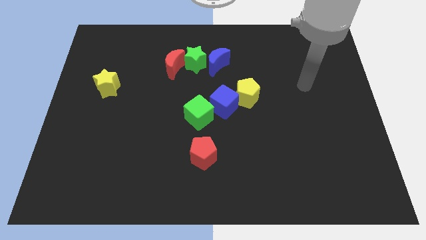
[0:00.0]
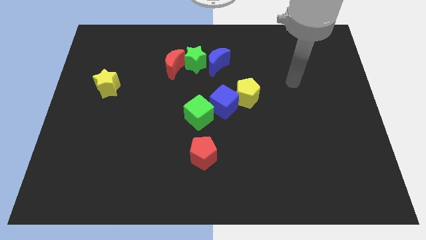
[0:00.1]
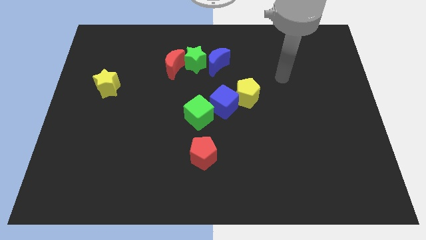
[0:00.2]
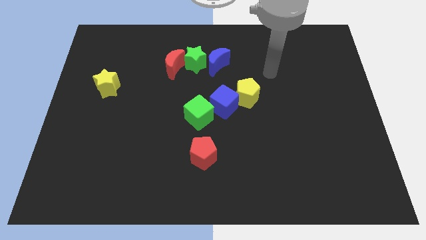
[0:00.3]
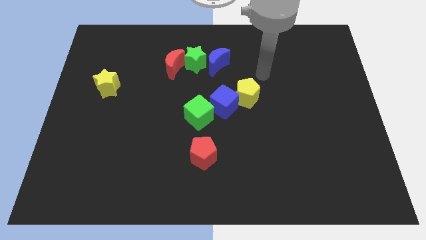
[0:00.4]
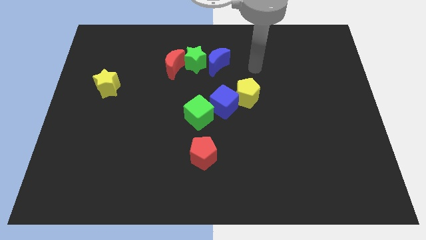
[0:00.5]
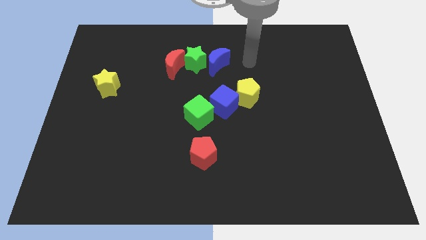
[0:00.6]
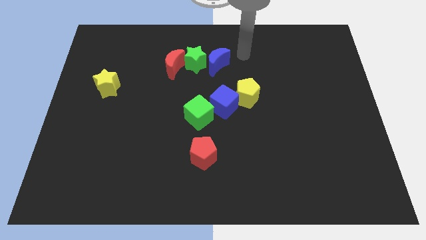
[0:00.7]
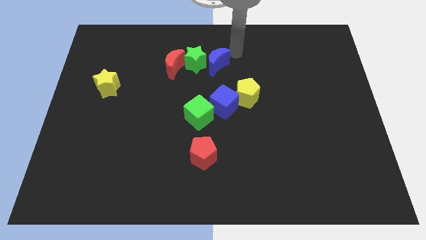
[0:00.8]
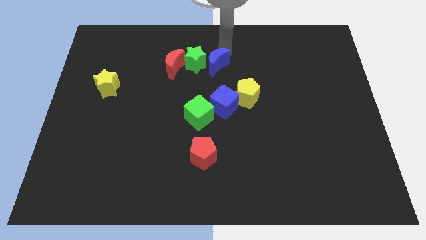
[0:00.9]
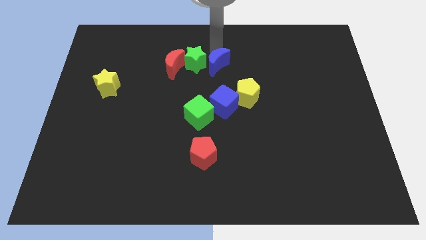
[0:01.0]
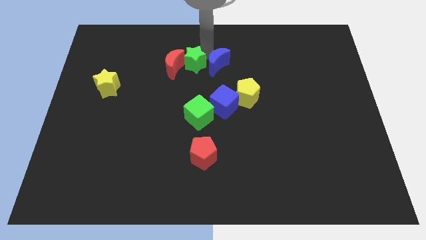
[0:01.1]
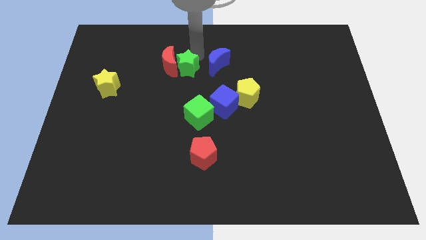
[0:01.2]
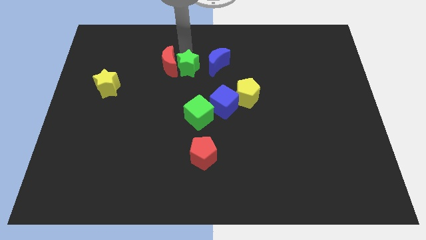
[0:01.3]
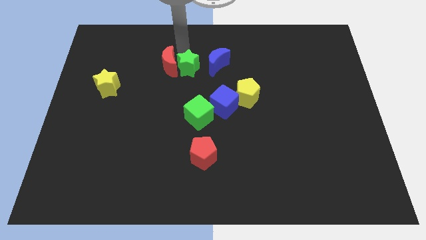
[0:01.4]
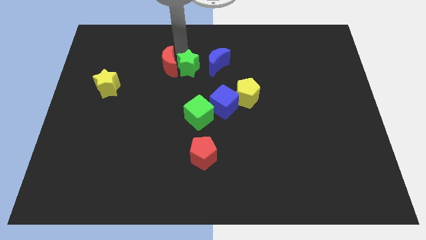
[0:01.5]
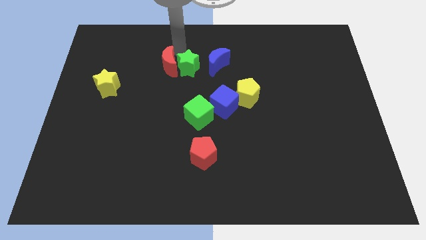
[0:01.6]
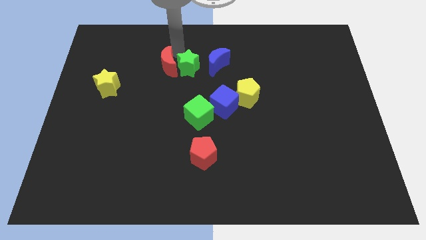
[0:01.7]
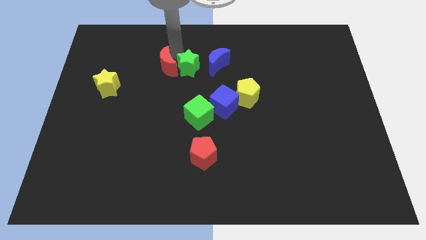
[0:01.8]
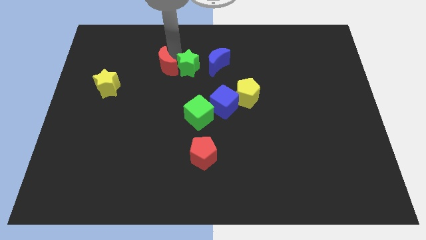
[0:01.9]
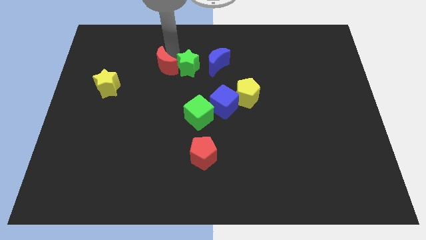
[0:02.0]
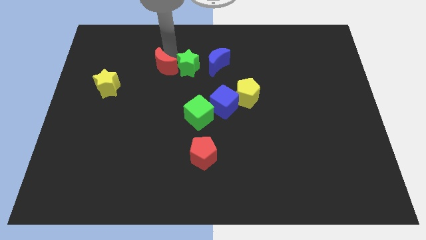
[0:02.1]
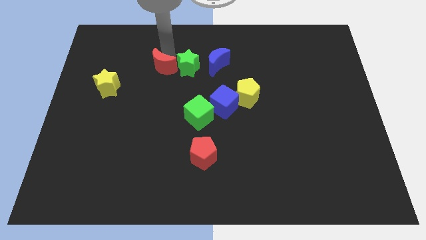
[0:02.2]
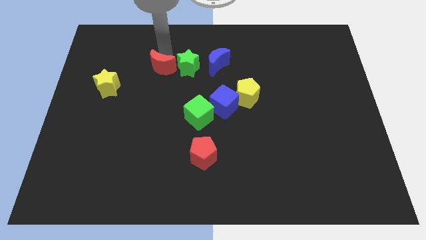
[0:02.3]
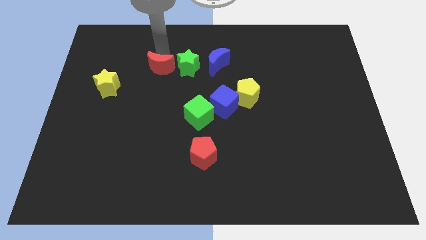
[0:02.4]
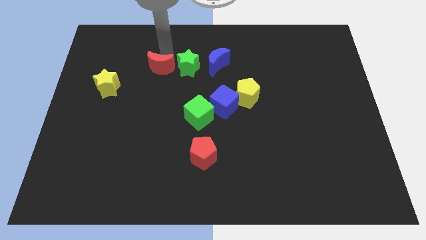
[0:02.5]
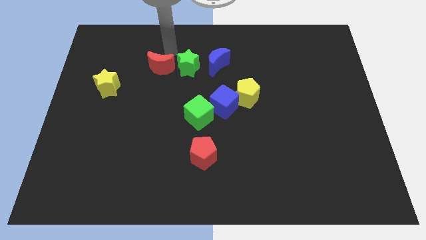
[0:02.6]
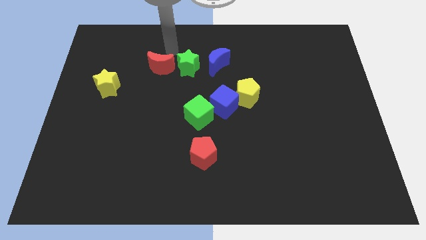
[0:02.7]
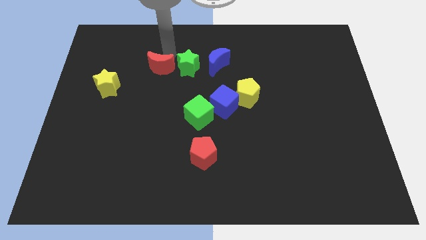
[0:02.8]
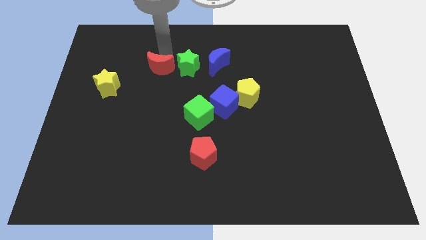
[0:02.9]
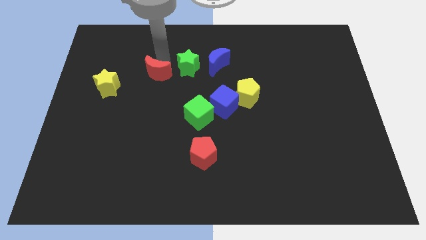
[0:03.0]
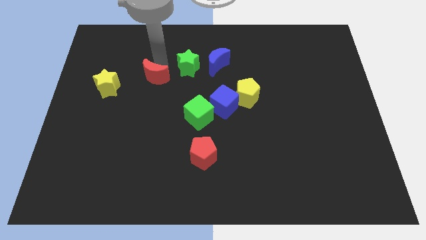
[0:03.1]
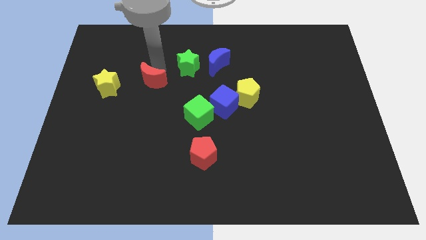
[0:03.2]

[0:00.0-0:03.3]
slide the red moon slightly downwards and left

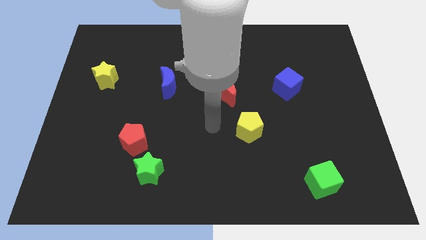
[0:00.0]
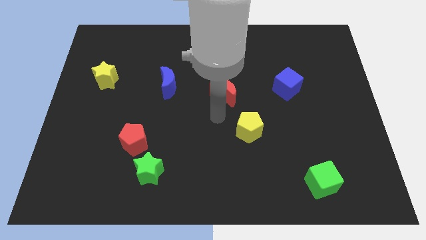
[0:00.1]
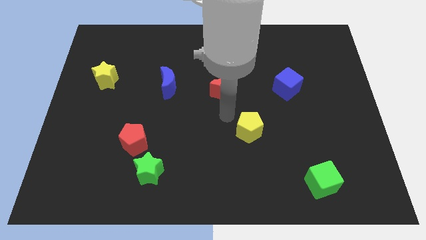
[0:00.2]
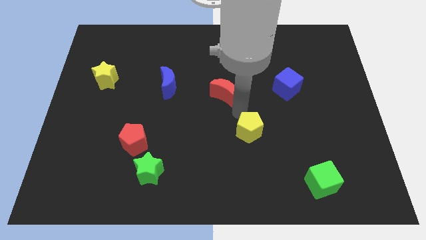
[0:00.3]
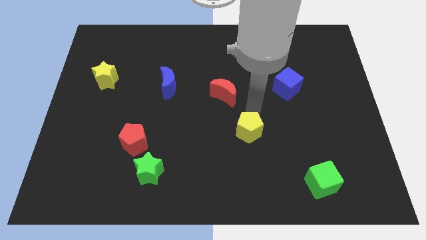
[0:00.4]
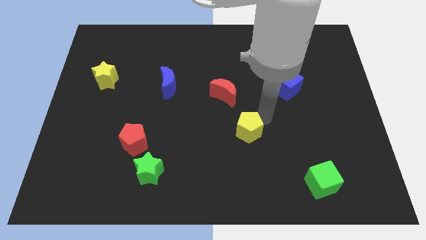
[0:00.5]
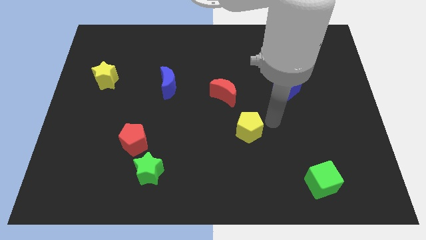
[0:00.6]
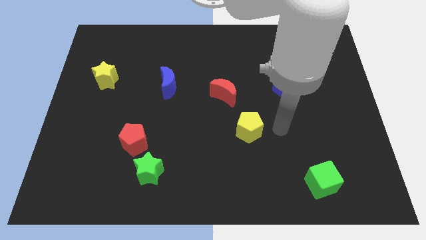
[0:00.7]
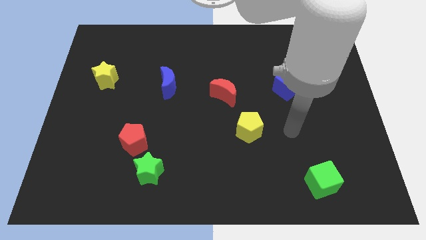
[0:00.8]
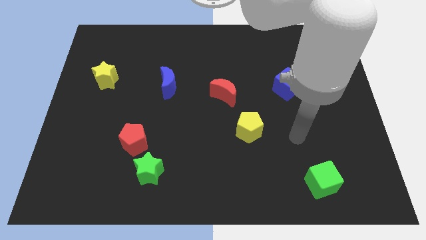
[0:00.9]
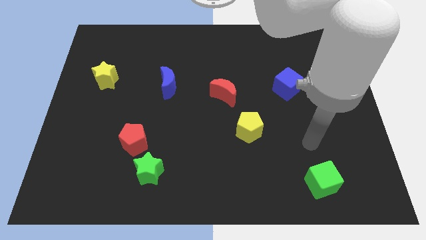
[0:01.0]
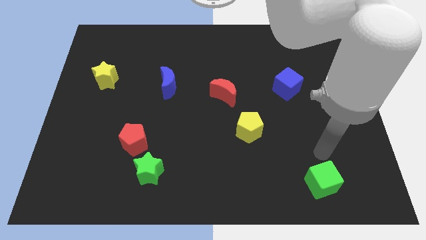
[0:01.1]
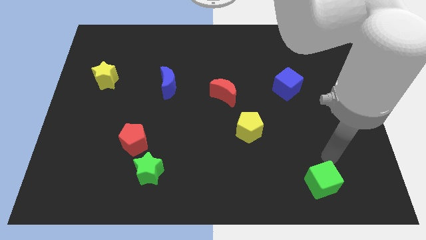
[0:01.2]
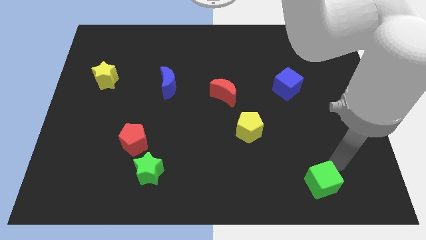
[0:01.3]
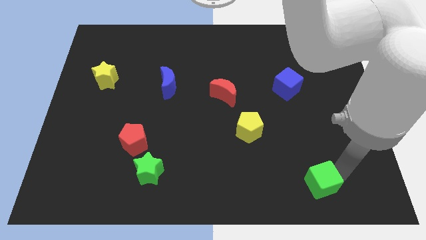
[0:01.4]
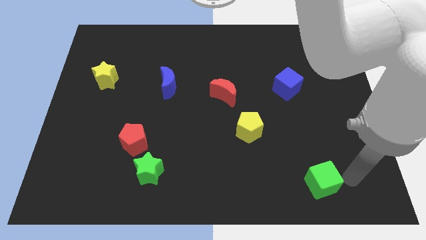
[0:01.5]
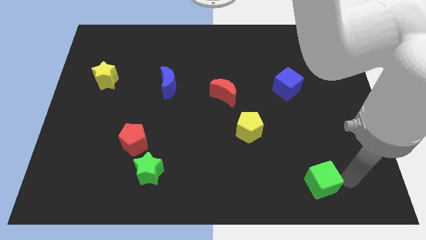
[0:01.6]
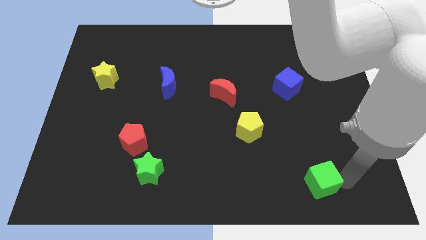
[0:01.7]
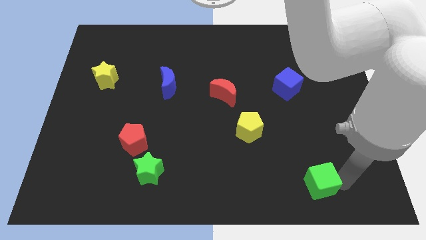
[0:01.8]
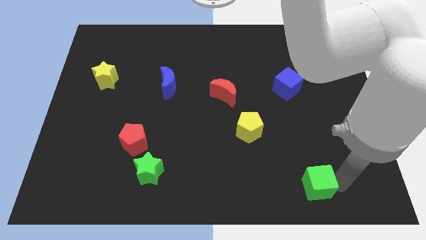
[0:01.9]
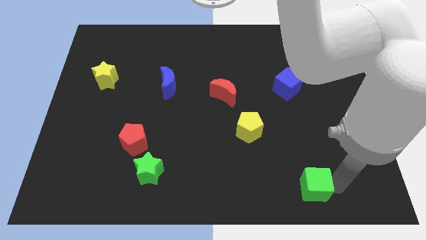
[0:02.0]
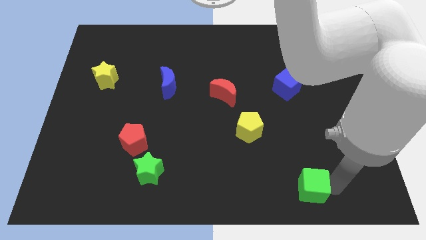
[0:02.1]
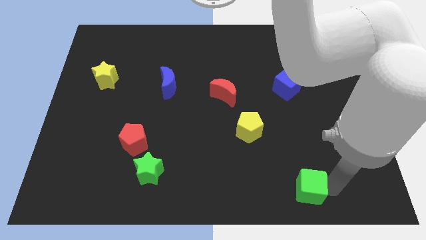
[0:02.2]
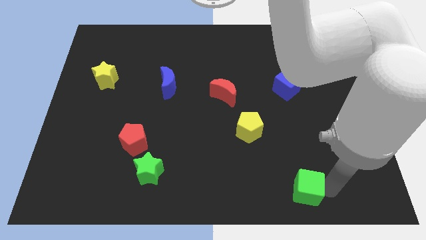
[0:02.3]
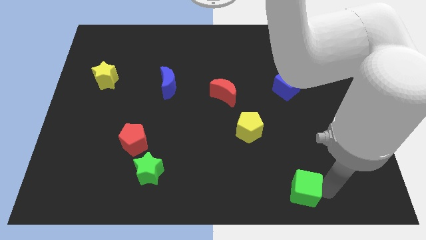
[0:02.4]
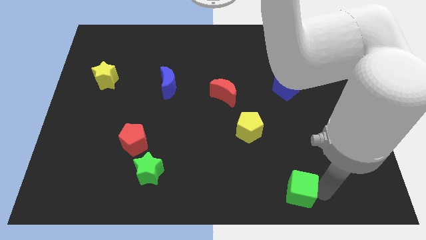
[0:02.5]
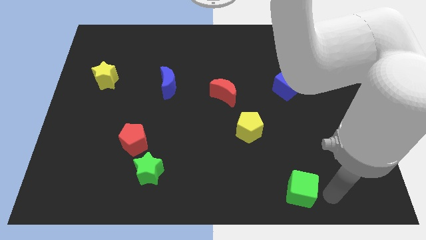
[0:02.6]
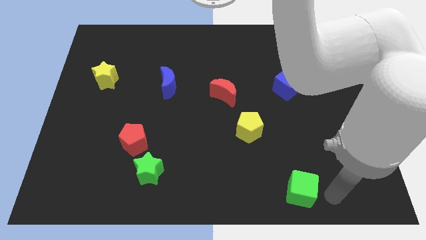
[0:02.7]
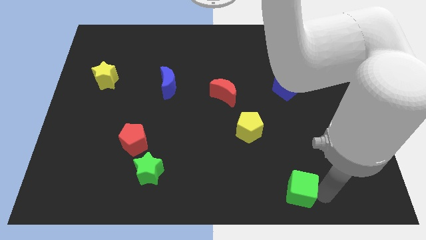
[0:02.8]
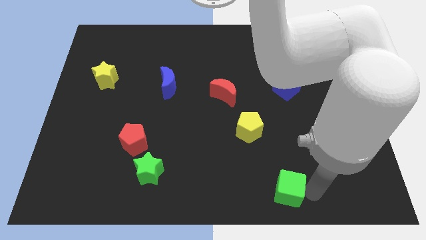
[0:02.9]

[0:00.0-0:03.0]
move the green cube to the left a little

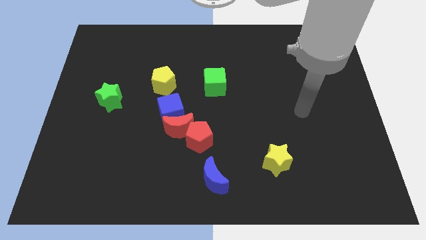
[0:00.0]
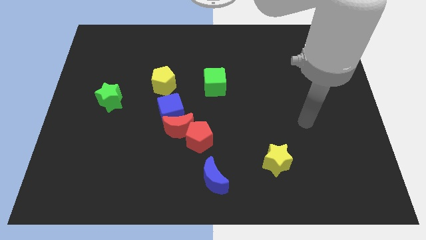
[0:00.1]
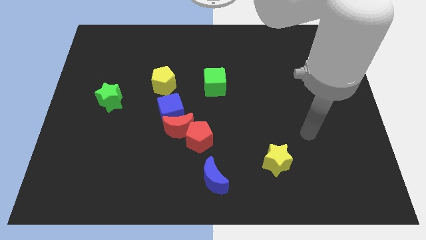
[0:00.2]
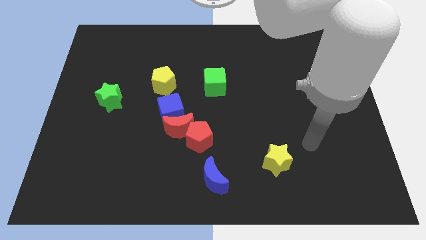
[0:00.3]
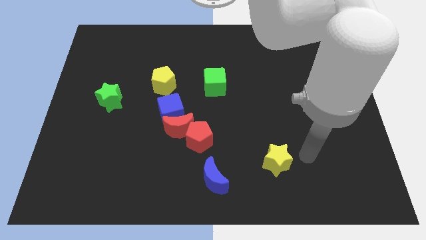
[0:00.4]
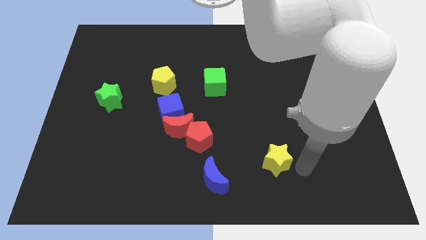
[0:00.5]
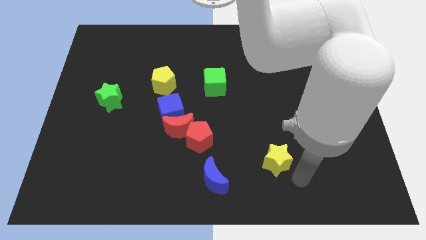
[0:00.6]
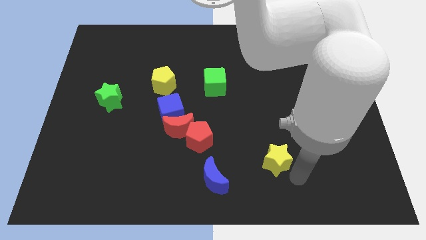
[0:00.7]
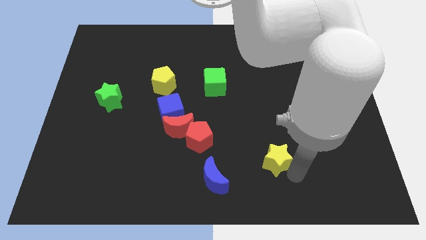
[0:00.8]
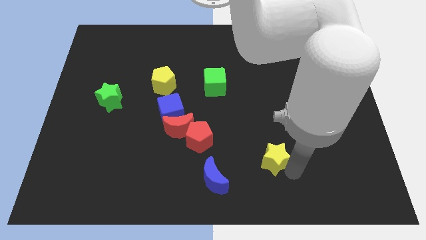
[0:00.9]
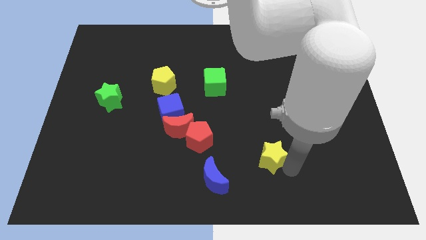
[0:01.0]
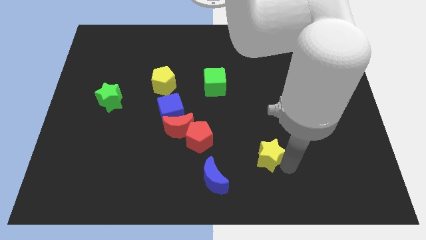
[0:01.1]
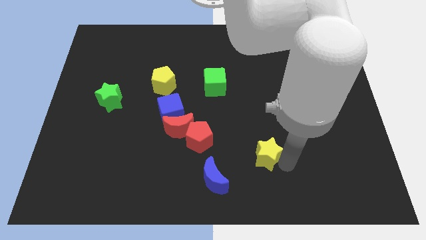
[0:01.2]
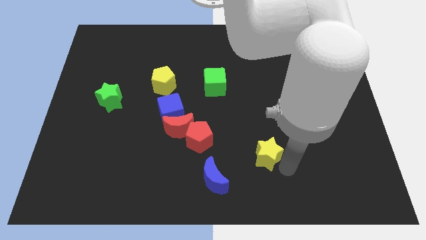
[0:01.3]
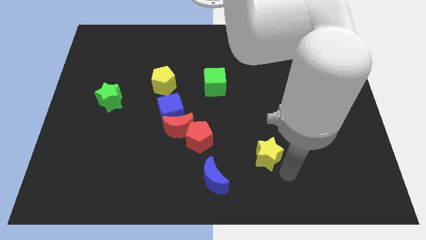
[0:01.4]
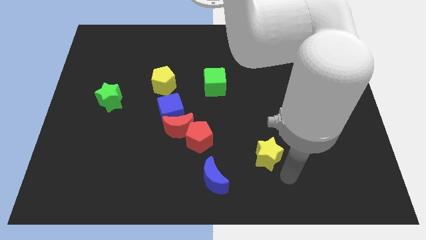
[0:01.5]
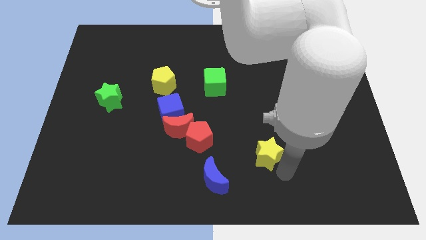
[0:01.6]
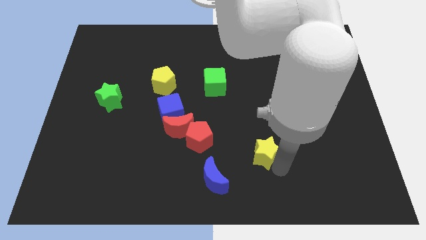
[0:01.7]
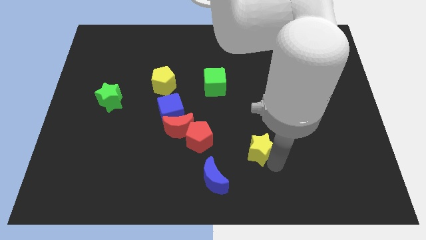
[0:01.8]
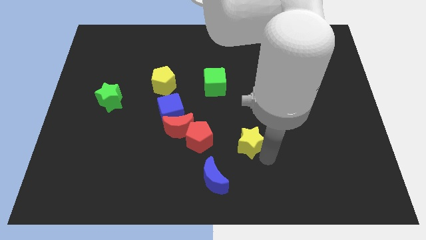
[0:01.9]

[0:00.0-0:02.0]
move the yellow star up and to the left diagonally somewhat
